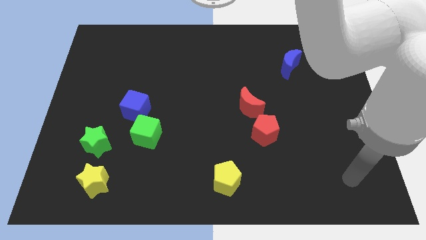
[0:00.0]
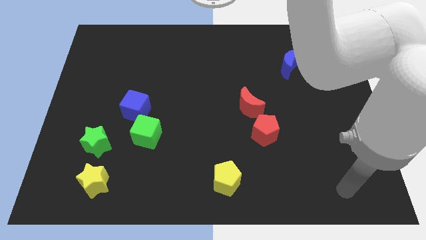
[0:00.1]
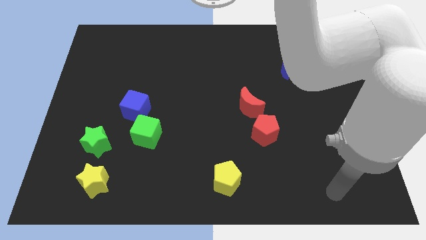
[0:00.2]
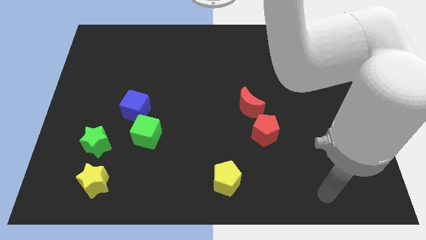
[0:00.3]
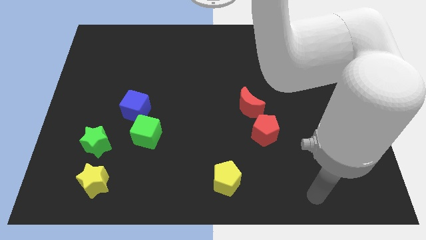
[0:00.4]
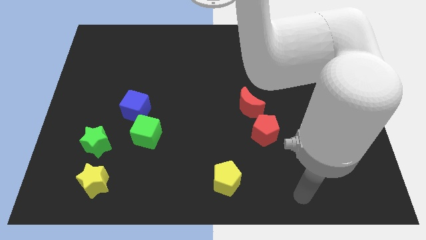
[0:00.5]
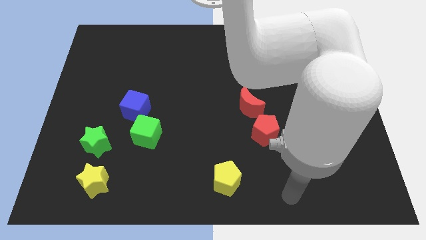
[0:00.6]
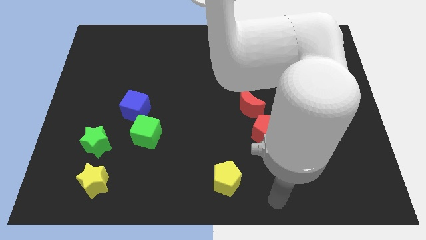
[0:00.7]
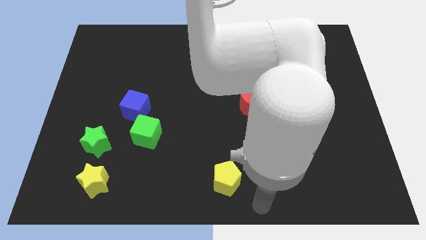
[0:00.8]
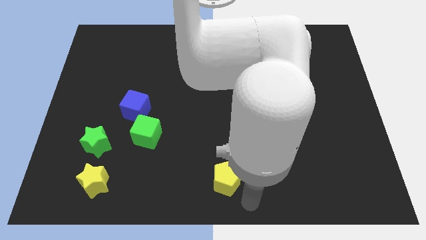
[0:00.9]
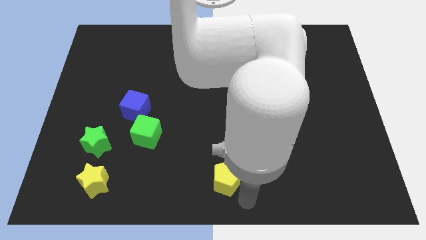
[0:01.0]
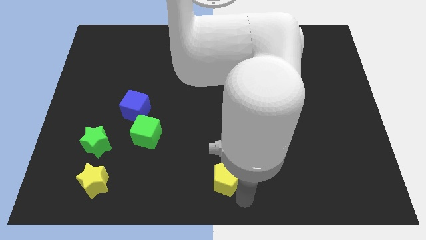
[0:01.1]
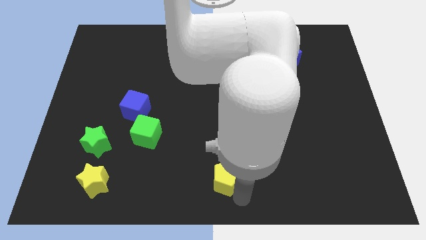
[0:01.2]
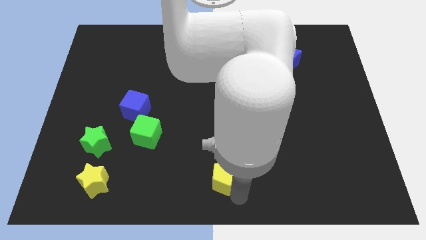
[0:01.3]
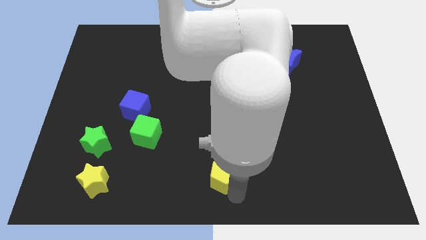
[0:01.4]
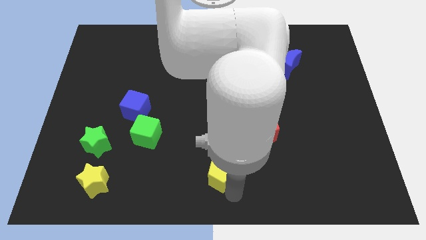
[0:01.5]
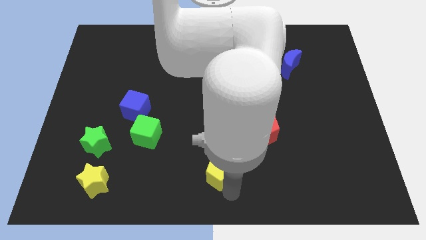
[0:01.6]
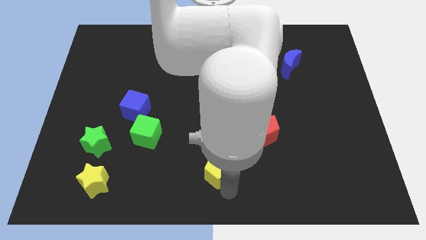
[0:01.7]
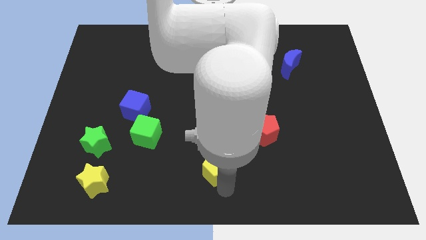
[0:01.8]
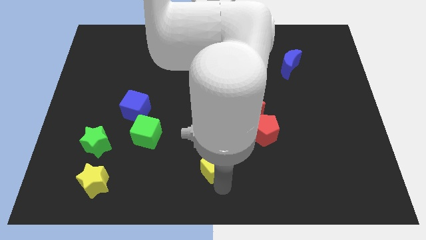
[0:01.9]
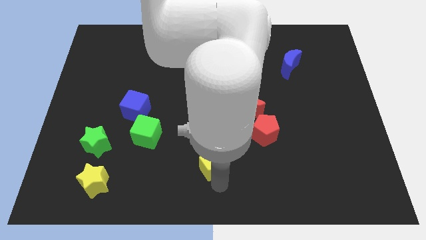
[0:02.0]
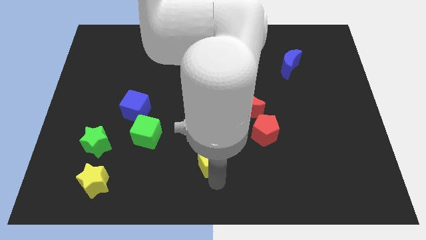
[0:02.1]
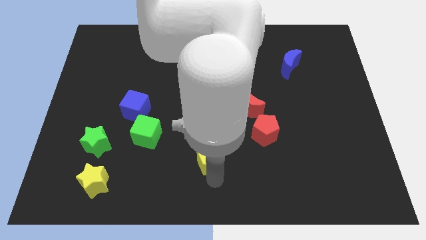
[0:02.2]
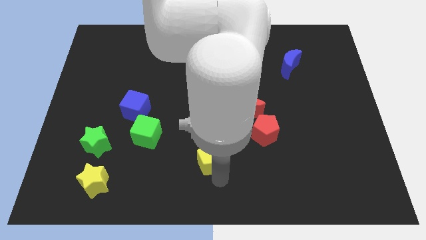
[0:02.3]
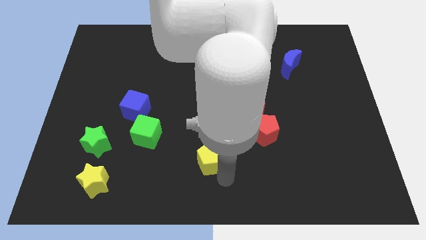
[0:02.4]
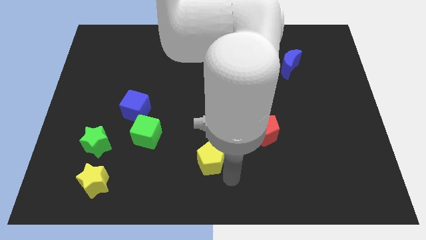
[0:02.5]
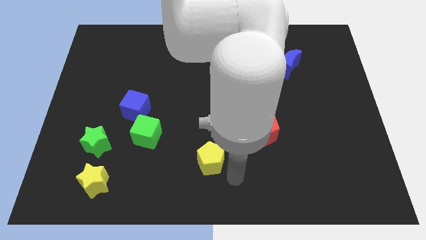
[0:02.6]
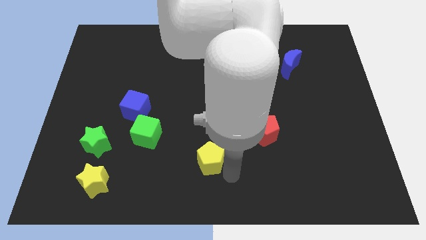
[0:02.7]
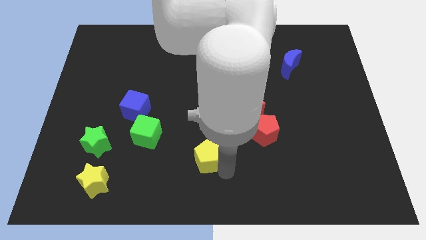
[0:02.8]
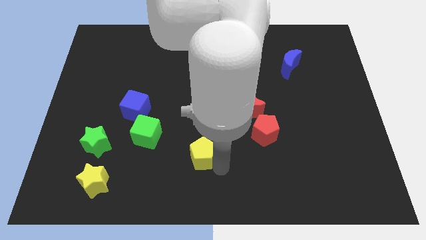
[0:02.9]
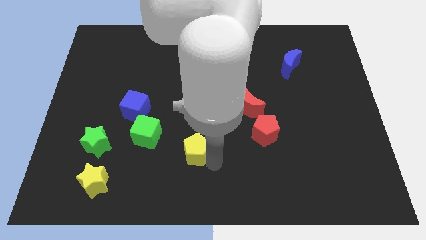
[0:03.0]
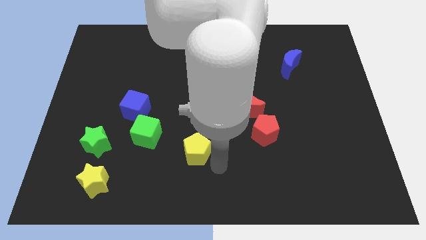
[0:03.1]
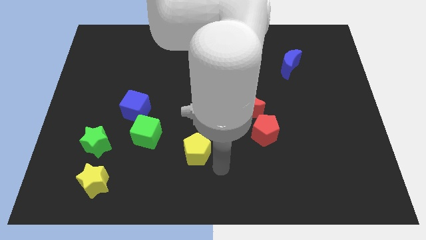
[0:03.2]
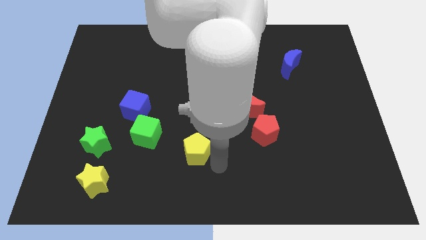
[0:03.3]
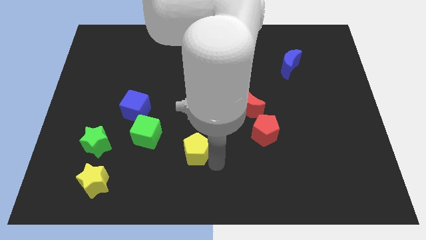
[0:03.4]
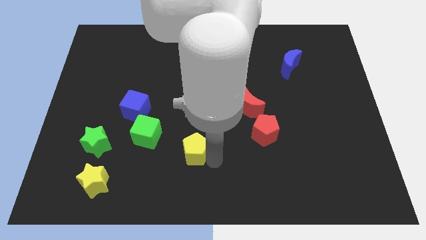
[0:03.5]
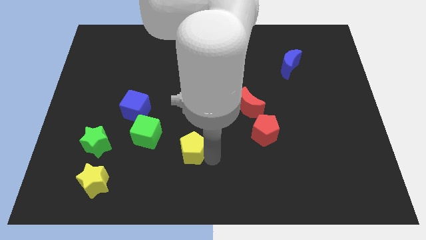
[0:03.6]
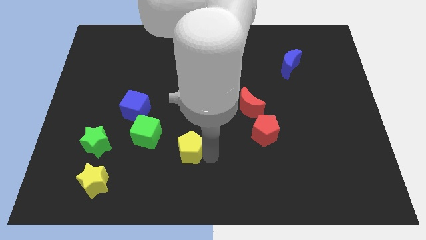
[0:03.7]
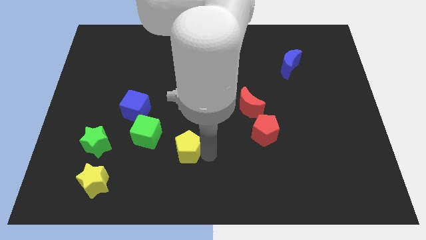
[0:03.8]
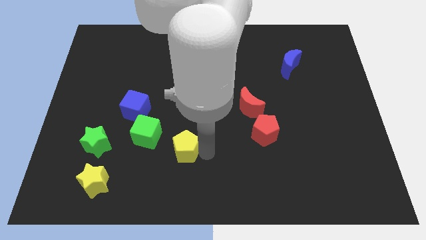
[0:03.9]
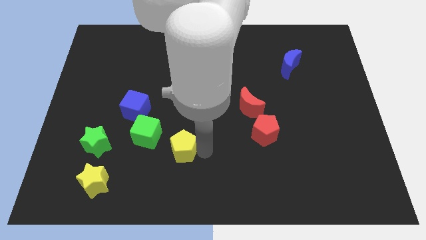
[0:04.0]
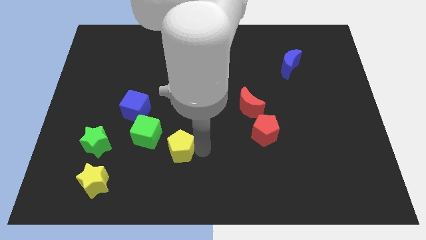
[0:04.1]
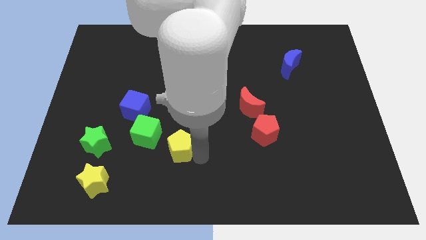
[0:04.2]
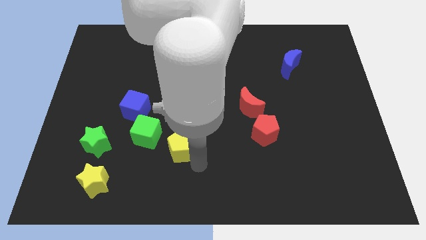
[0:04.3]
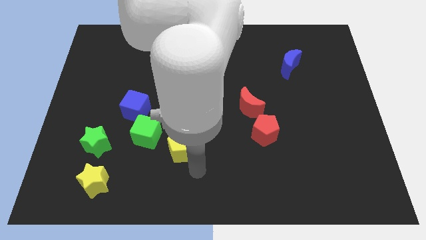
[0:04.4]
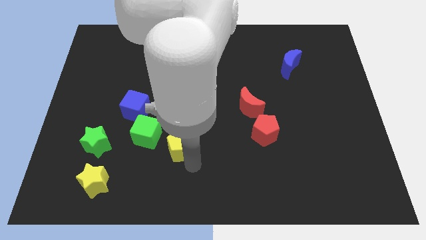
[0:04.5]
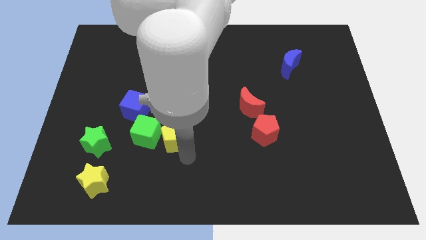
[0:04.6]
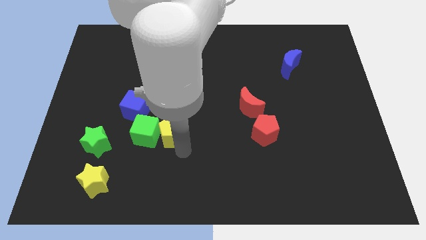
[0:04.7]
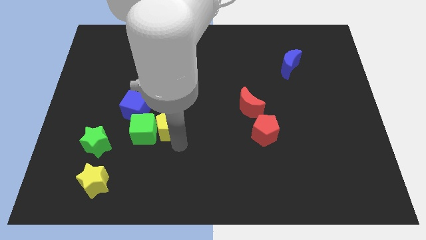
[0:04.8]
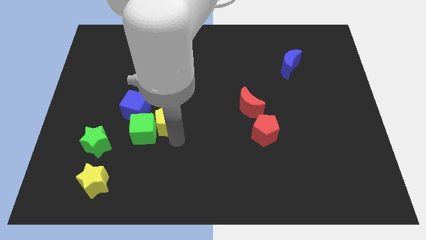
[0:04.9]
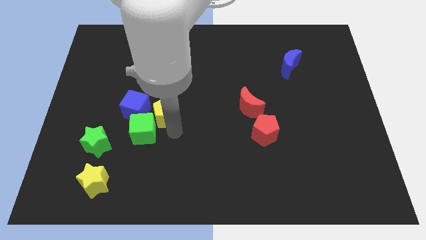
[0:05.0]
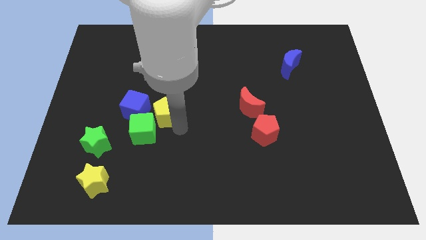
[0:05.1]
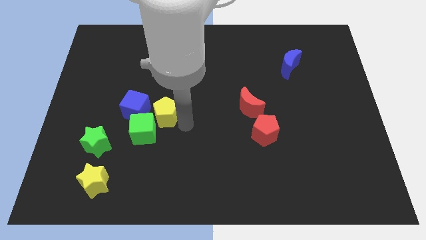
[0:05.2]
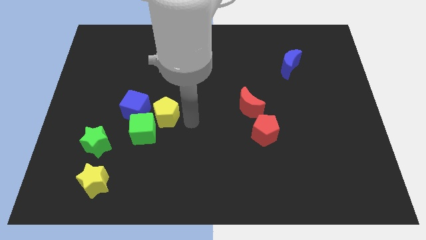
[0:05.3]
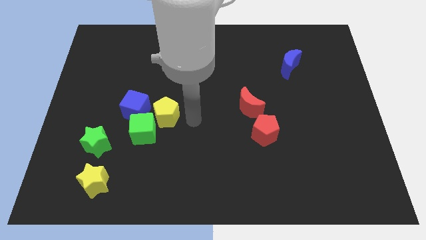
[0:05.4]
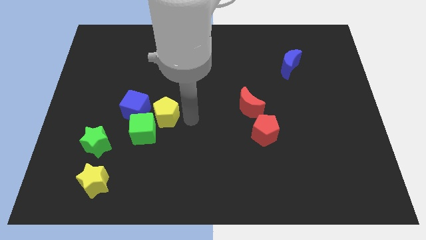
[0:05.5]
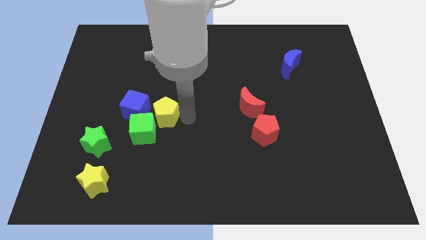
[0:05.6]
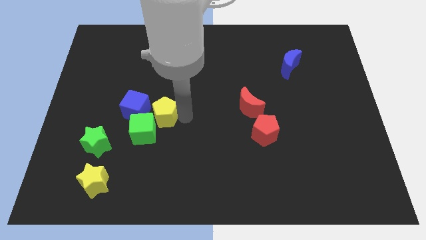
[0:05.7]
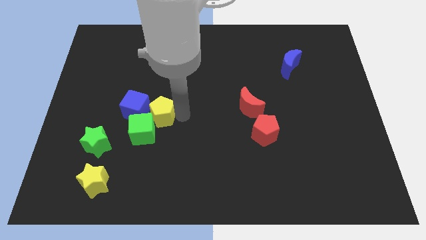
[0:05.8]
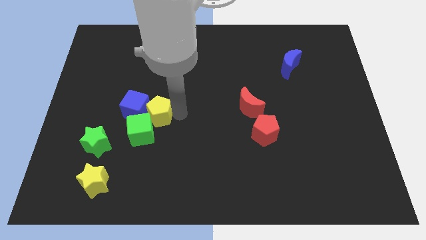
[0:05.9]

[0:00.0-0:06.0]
push the yellow pentagon to the blue cube

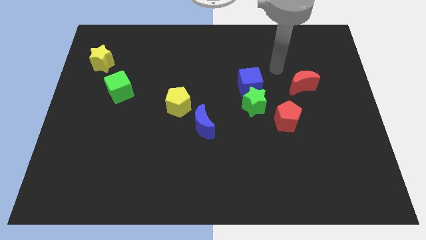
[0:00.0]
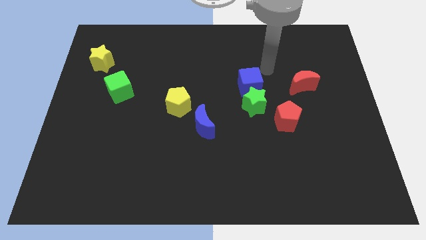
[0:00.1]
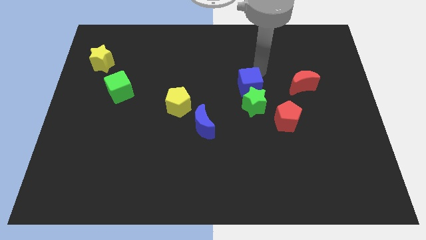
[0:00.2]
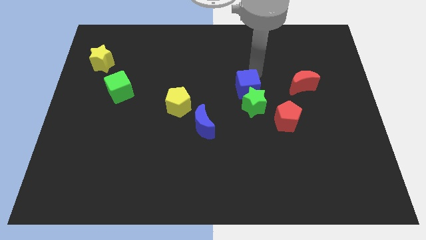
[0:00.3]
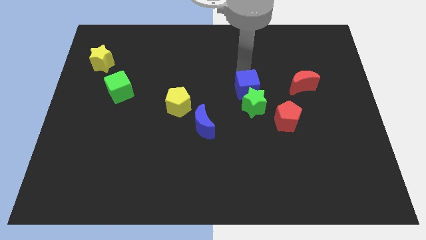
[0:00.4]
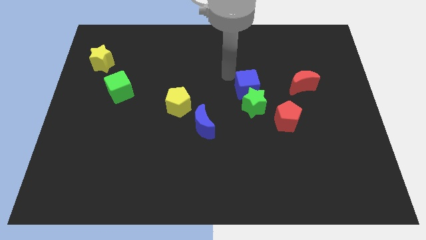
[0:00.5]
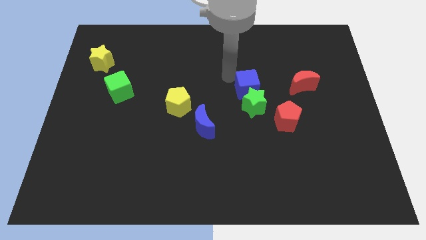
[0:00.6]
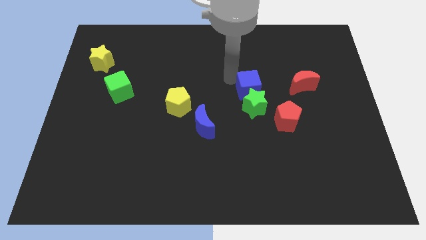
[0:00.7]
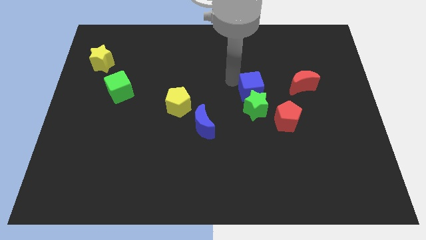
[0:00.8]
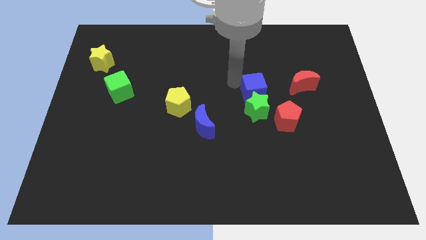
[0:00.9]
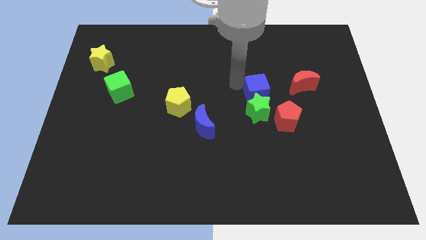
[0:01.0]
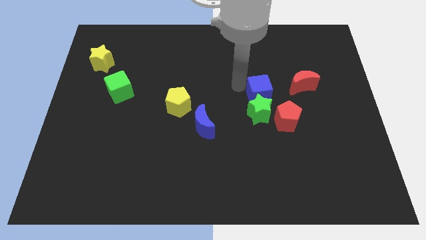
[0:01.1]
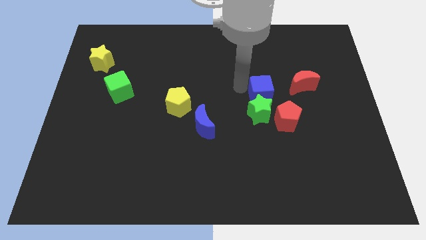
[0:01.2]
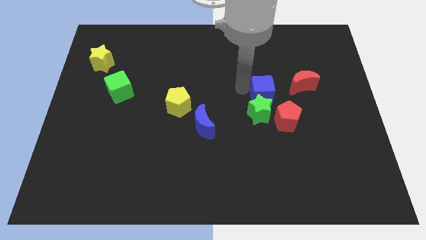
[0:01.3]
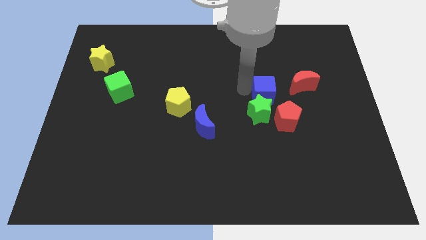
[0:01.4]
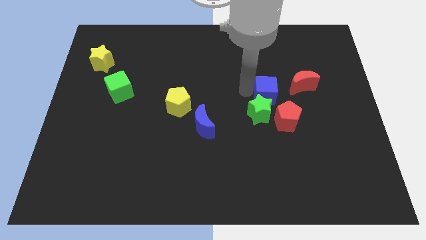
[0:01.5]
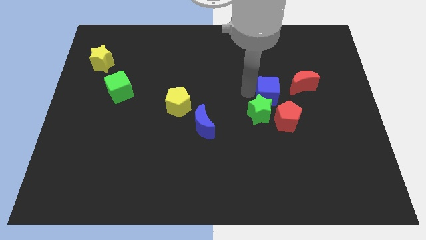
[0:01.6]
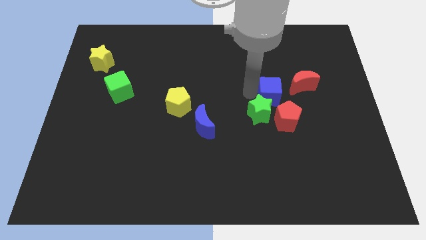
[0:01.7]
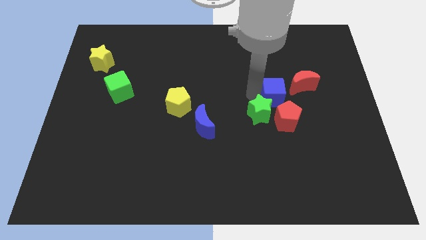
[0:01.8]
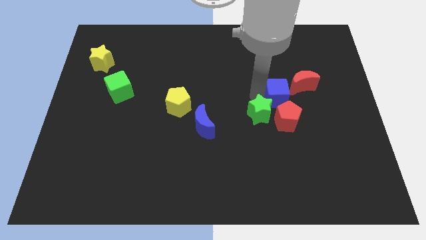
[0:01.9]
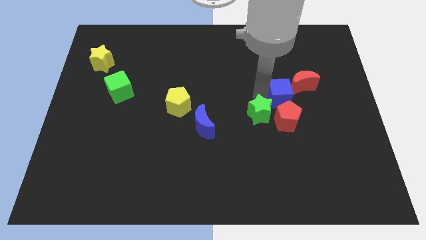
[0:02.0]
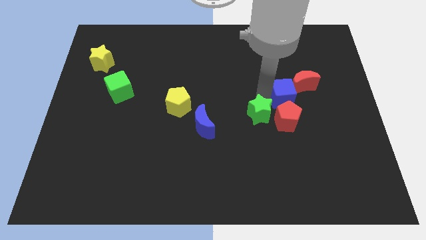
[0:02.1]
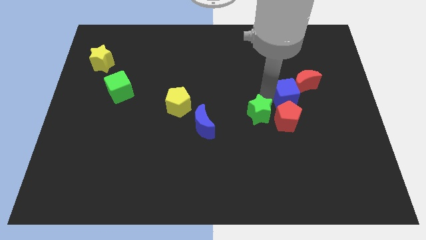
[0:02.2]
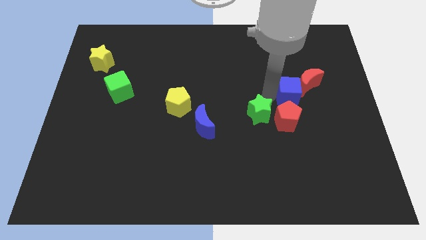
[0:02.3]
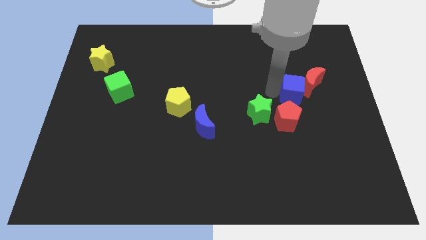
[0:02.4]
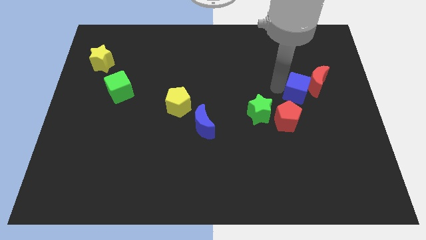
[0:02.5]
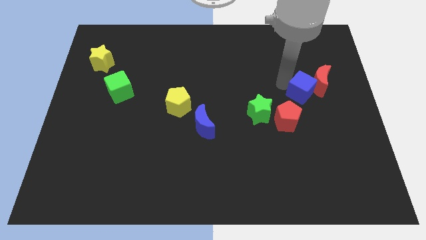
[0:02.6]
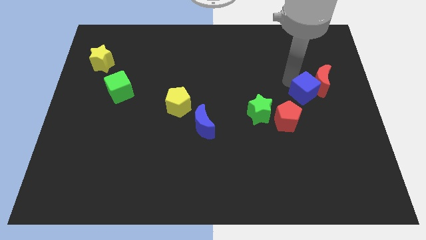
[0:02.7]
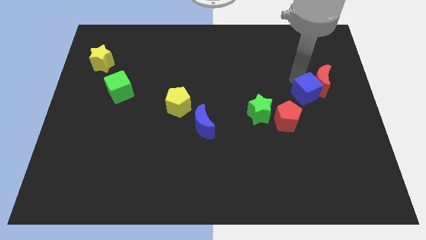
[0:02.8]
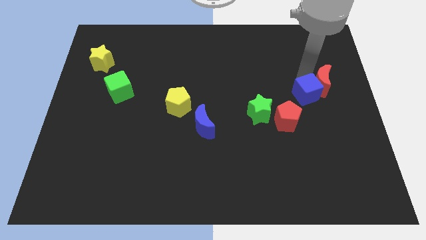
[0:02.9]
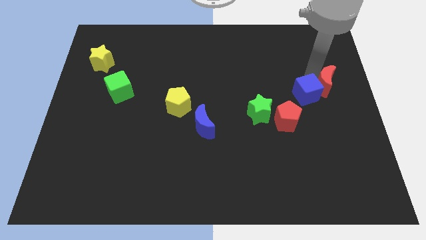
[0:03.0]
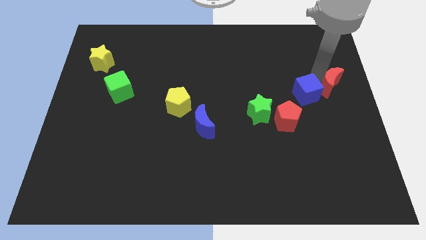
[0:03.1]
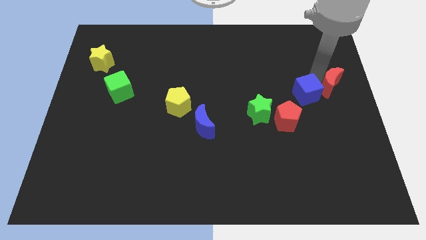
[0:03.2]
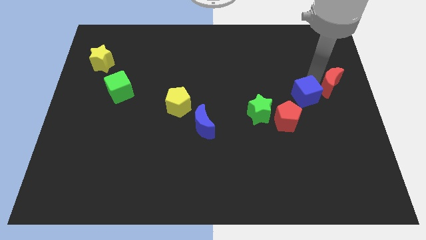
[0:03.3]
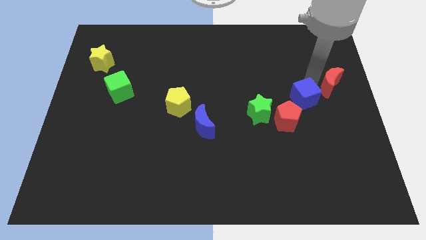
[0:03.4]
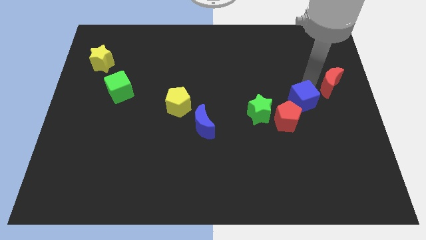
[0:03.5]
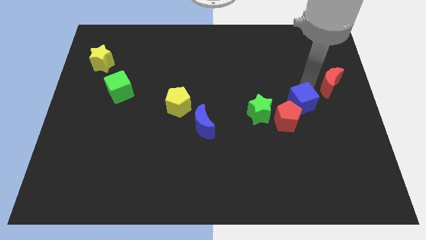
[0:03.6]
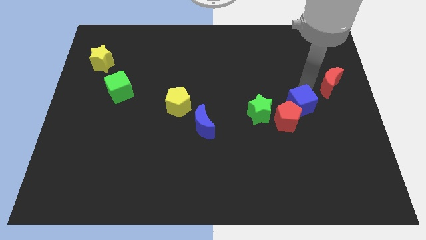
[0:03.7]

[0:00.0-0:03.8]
push the blue cube towards the red pentagon
